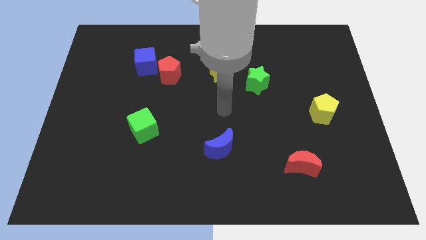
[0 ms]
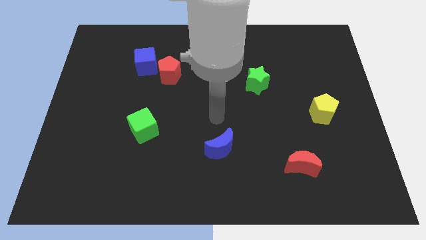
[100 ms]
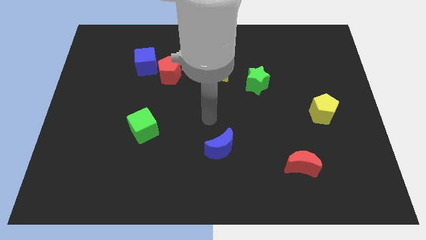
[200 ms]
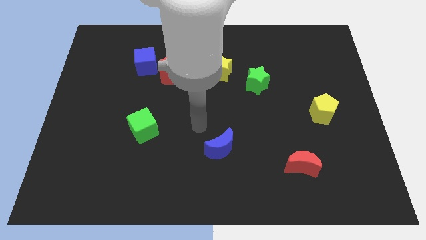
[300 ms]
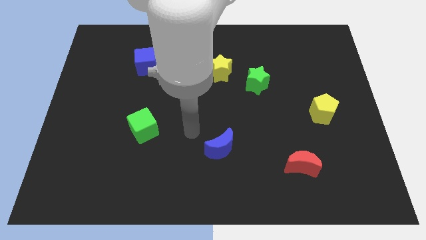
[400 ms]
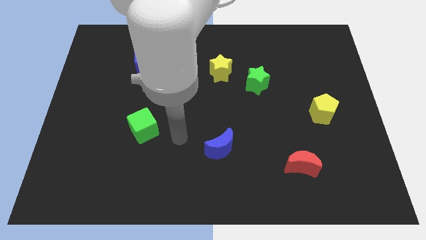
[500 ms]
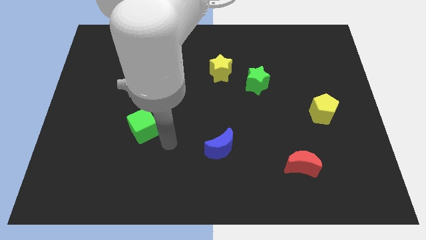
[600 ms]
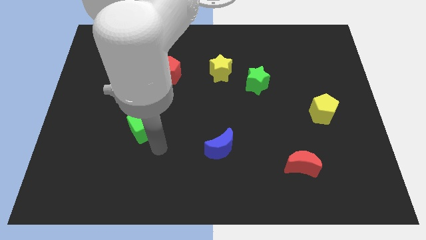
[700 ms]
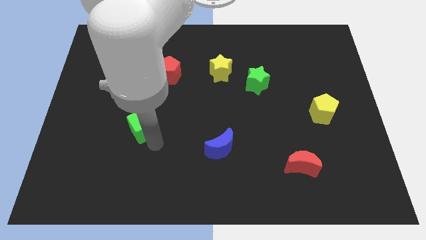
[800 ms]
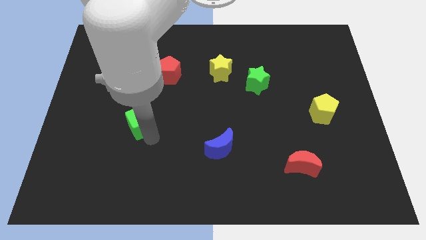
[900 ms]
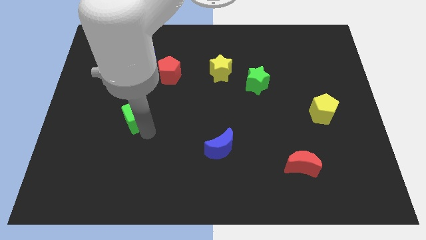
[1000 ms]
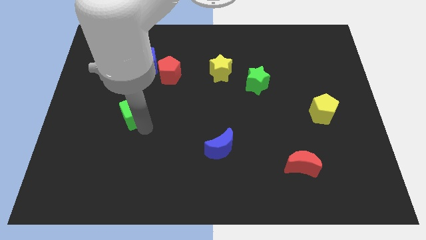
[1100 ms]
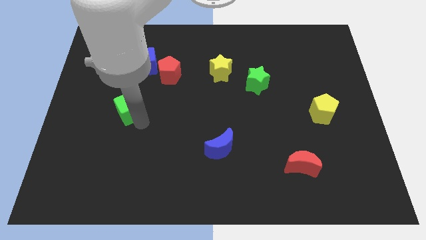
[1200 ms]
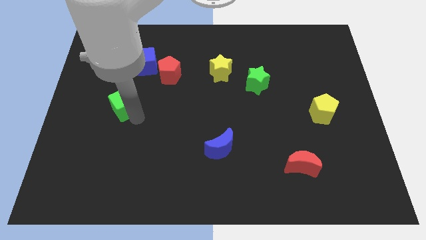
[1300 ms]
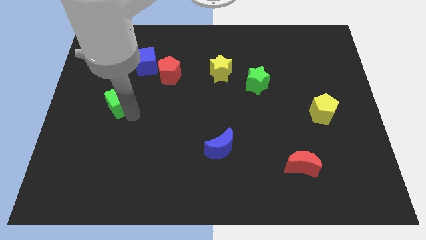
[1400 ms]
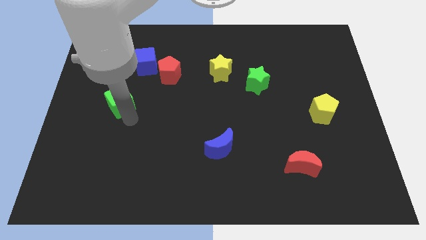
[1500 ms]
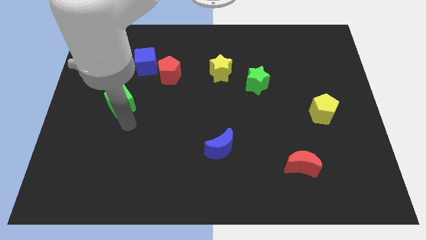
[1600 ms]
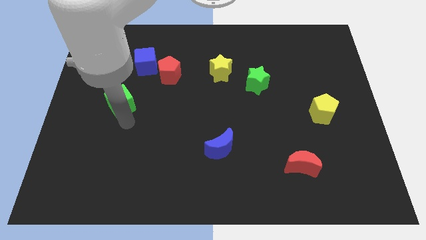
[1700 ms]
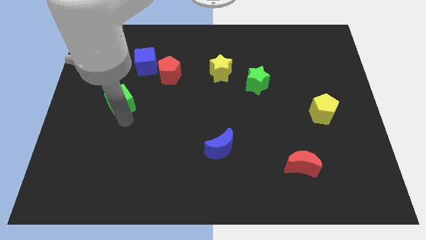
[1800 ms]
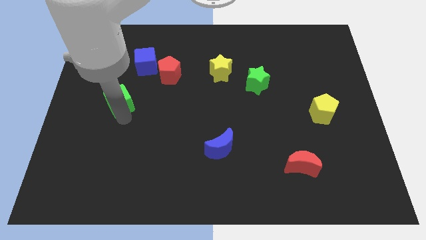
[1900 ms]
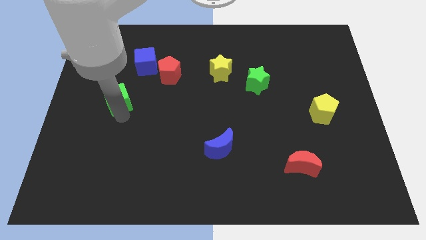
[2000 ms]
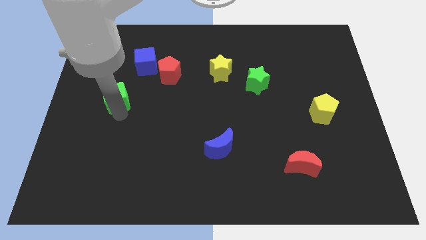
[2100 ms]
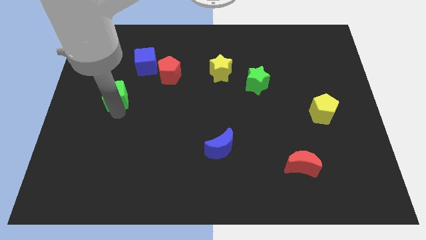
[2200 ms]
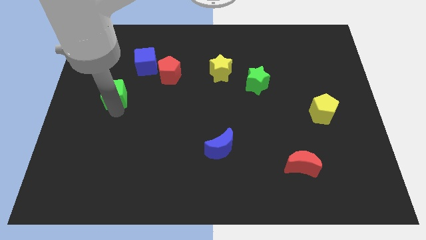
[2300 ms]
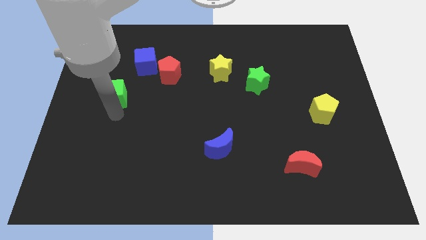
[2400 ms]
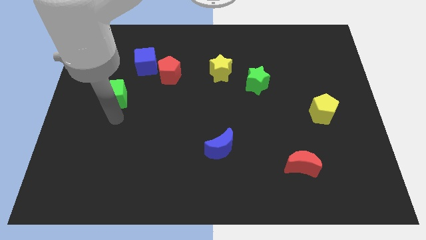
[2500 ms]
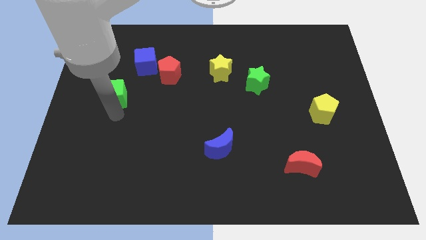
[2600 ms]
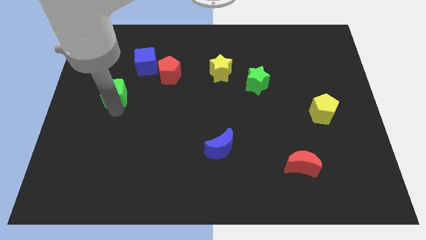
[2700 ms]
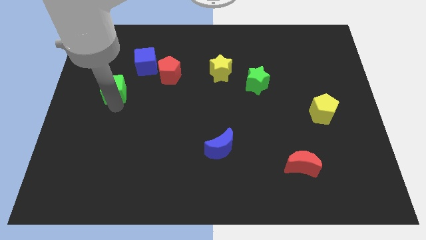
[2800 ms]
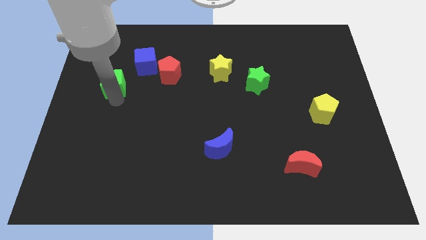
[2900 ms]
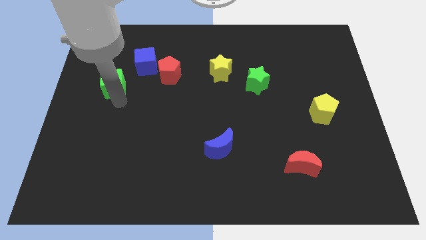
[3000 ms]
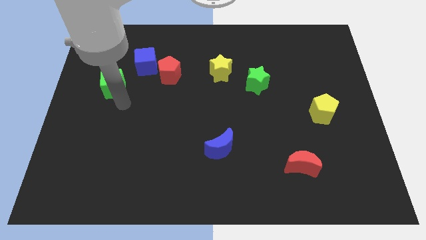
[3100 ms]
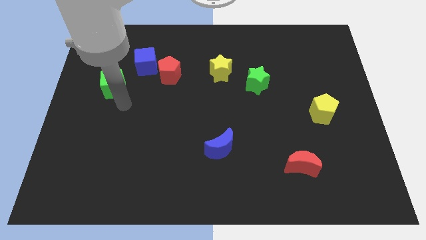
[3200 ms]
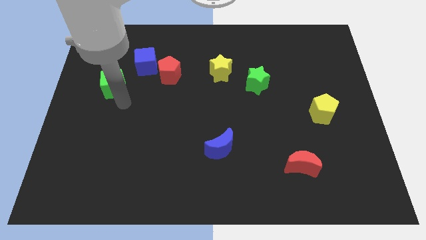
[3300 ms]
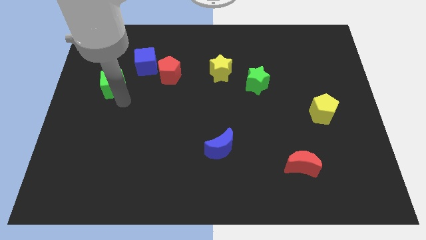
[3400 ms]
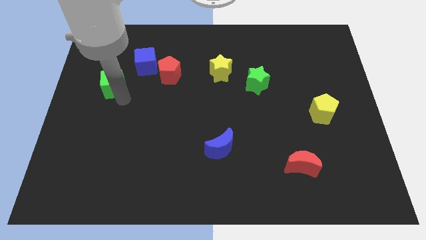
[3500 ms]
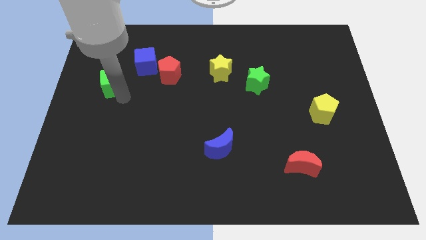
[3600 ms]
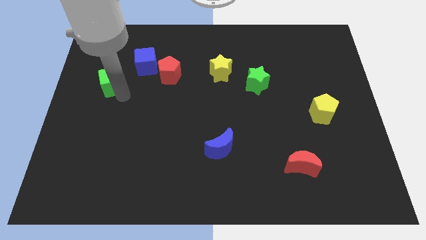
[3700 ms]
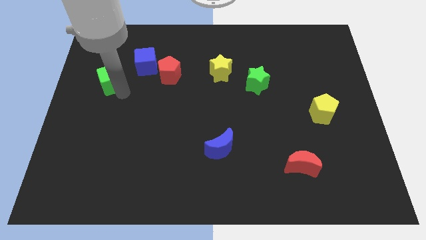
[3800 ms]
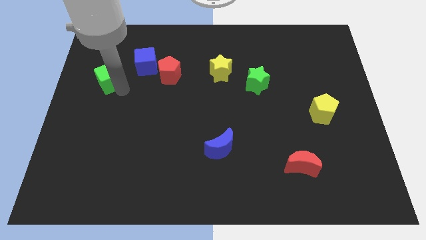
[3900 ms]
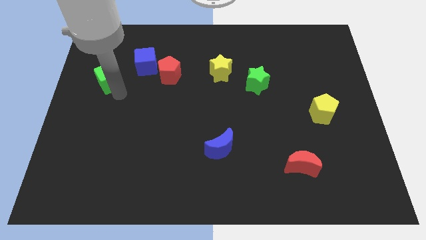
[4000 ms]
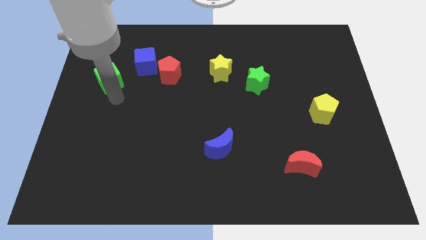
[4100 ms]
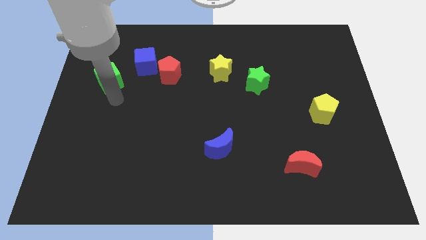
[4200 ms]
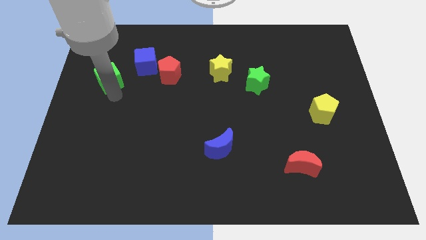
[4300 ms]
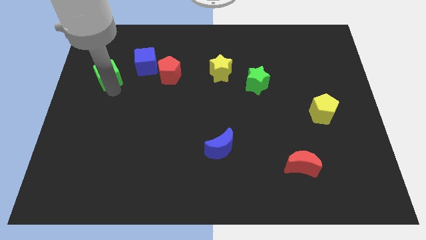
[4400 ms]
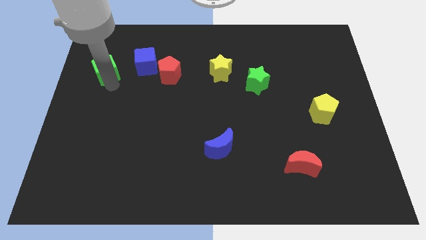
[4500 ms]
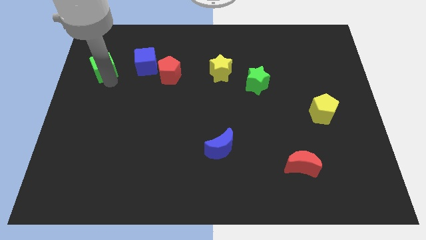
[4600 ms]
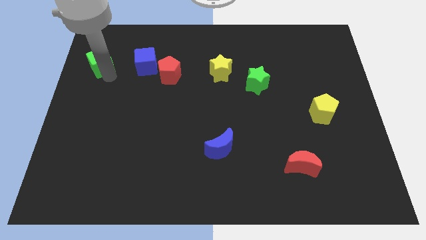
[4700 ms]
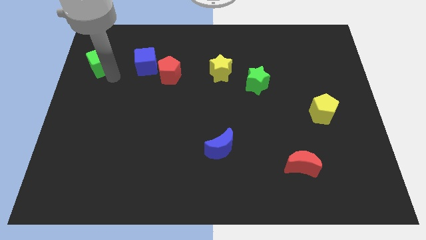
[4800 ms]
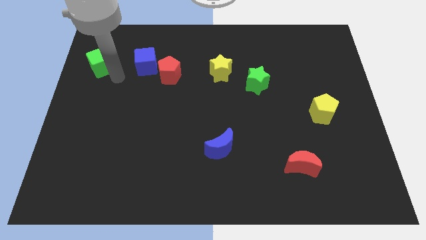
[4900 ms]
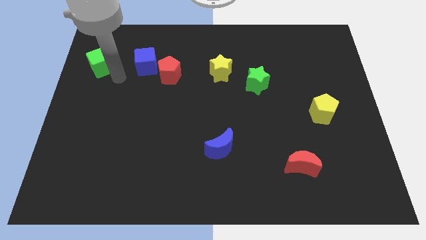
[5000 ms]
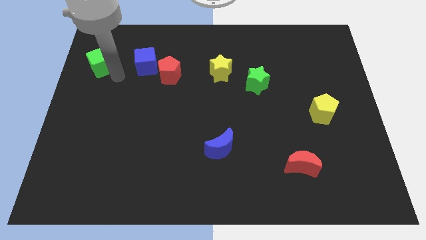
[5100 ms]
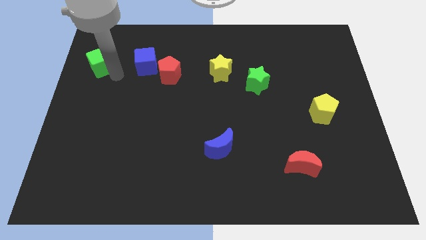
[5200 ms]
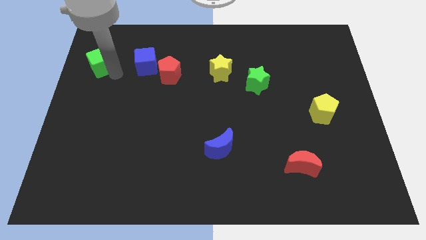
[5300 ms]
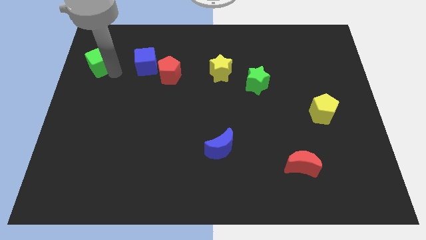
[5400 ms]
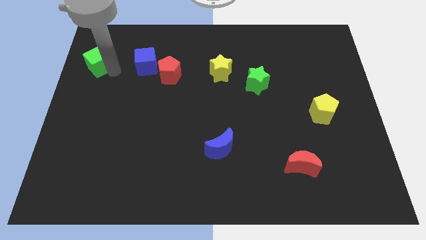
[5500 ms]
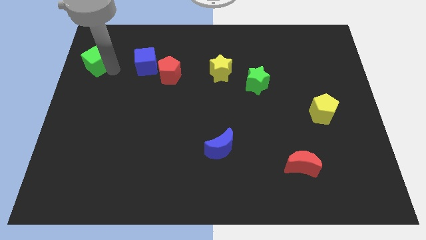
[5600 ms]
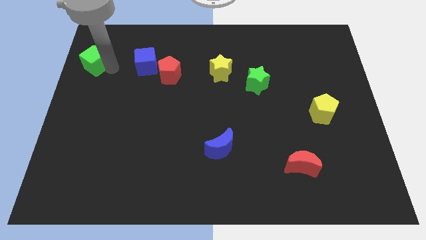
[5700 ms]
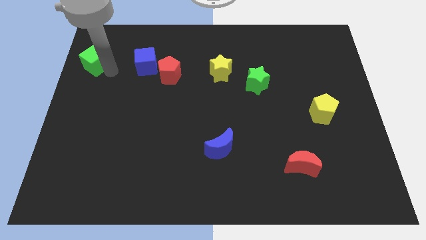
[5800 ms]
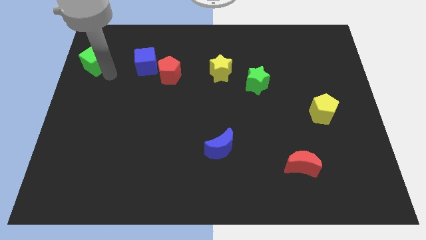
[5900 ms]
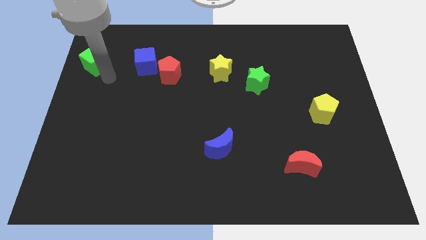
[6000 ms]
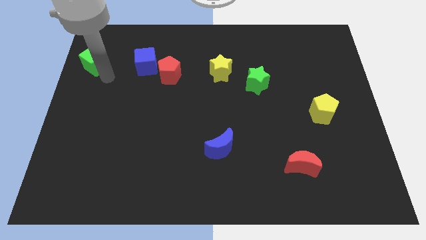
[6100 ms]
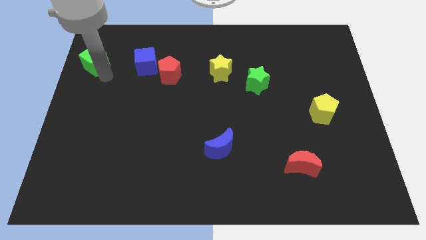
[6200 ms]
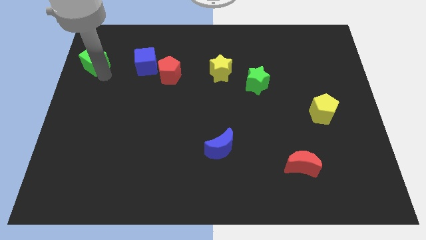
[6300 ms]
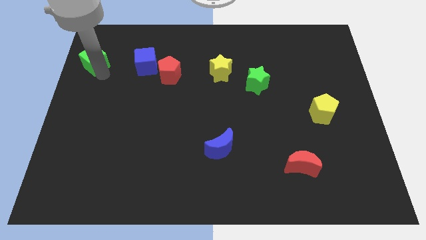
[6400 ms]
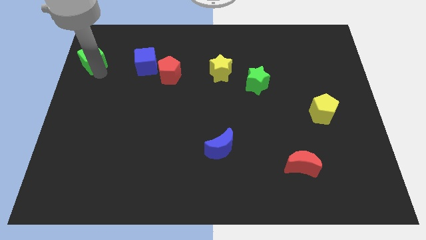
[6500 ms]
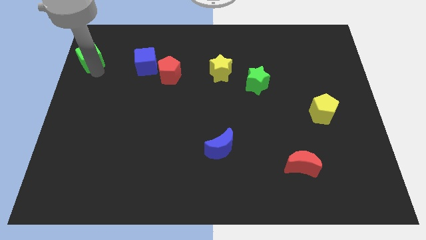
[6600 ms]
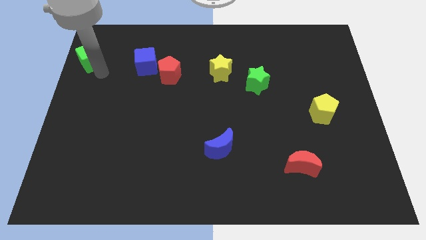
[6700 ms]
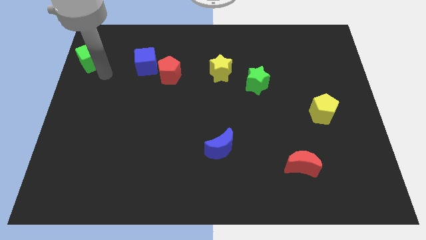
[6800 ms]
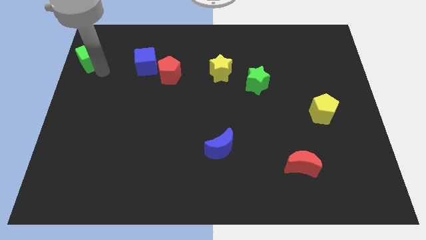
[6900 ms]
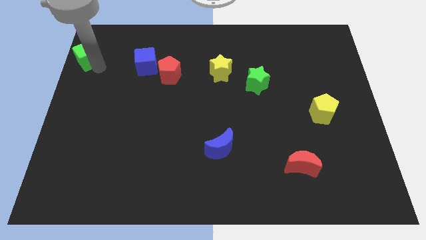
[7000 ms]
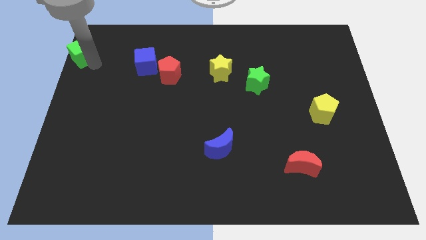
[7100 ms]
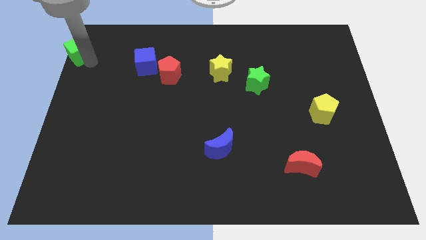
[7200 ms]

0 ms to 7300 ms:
move the green cube to the top left

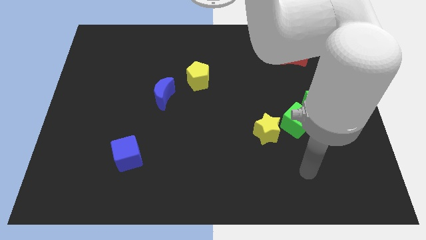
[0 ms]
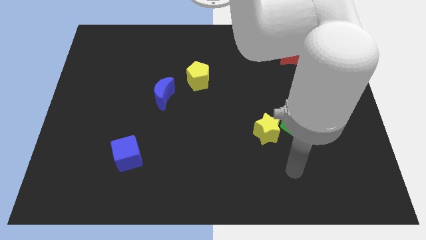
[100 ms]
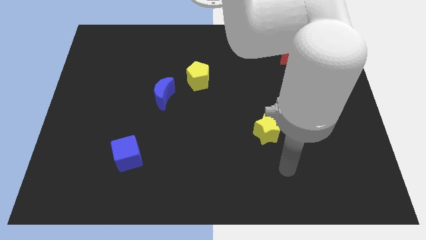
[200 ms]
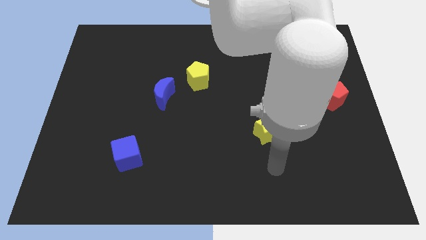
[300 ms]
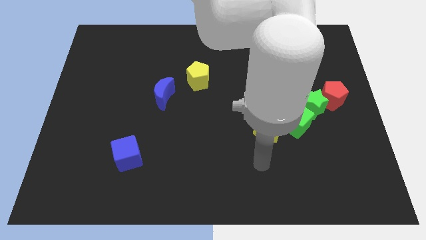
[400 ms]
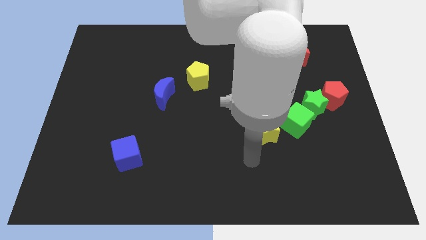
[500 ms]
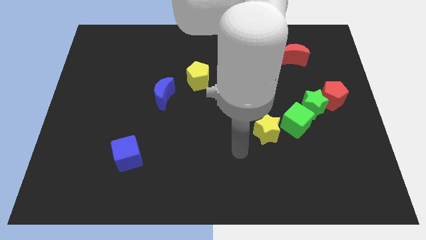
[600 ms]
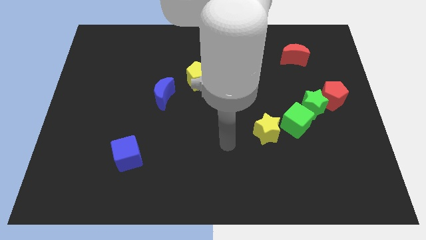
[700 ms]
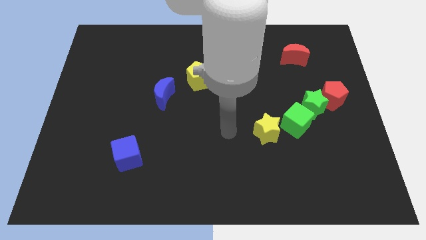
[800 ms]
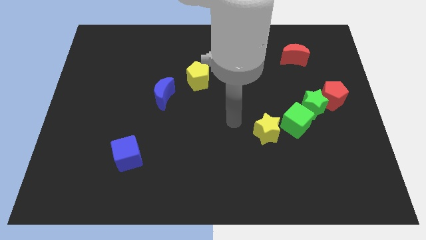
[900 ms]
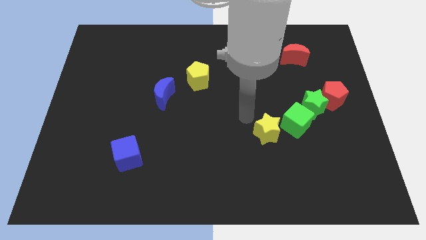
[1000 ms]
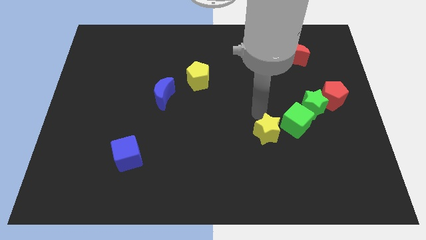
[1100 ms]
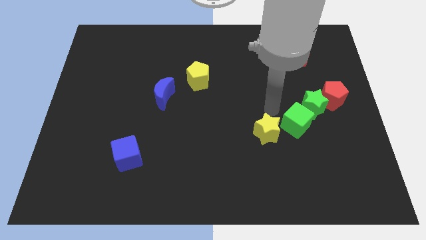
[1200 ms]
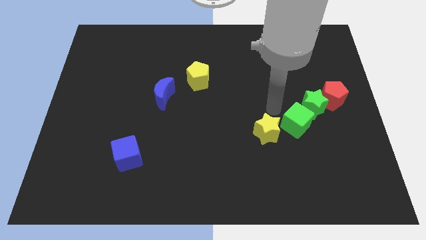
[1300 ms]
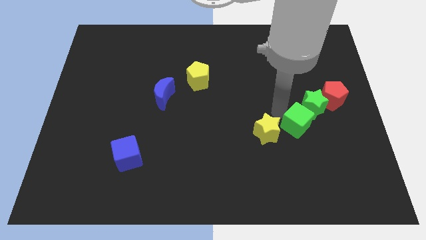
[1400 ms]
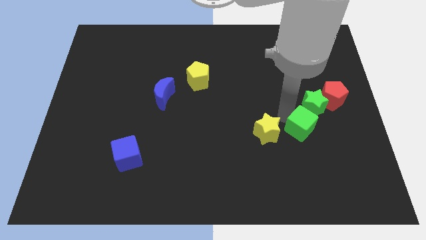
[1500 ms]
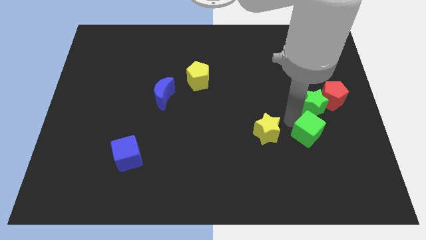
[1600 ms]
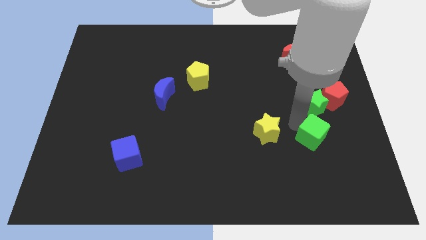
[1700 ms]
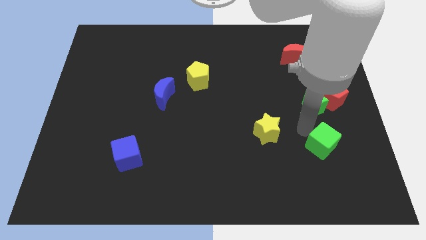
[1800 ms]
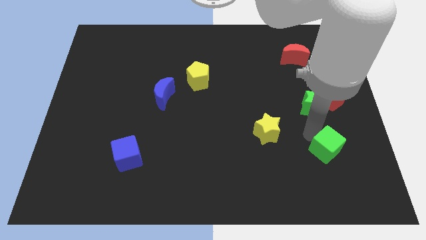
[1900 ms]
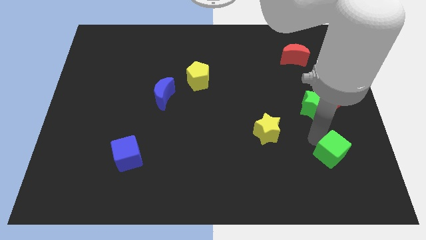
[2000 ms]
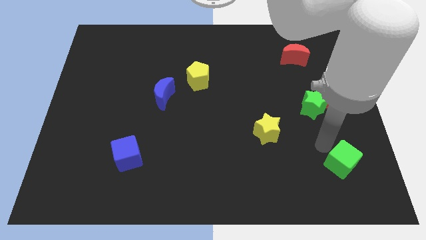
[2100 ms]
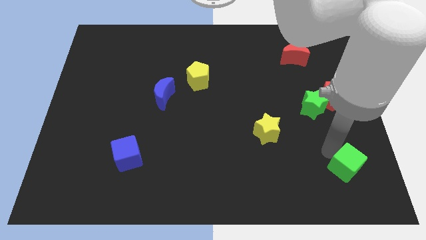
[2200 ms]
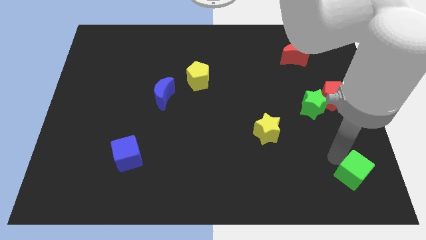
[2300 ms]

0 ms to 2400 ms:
put the green cube to the lower right corner
